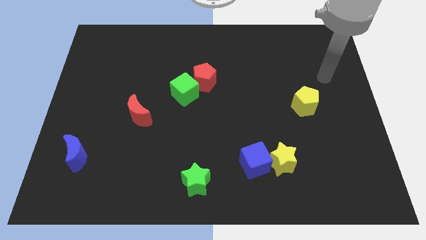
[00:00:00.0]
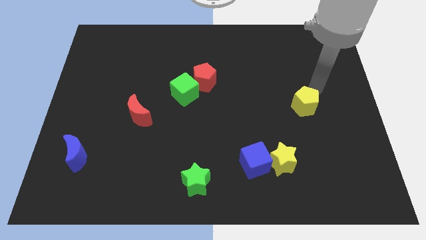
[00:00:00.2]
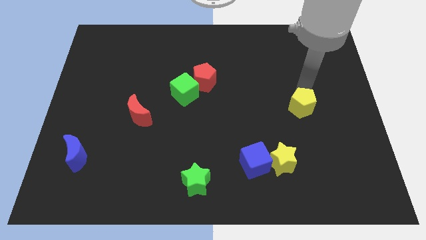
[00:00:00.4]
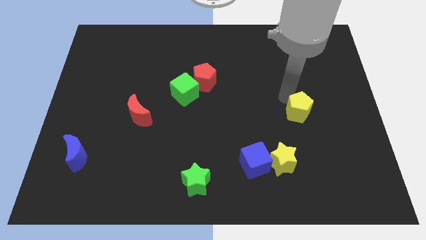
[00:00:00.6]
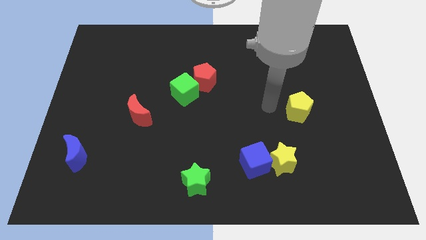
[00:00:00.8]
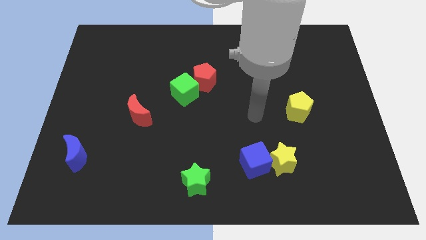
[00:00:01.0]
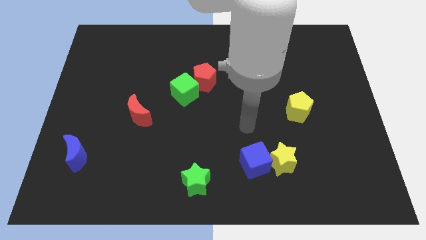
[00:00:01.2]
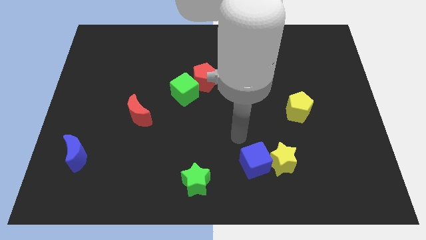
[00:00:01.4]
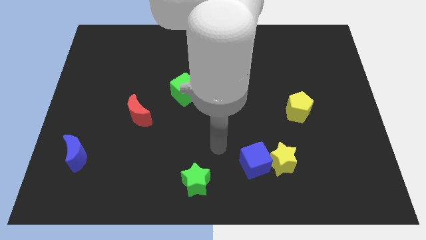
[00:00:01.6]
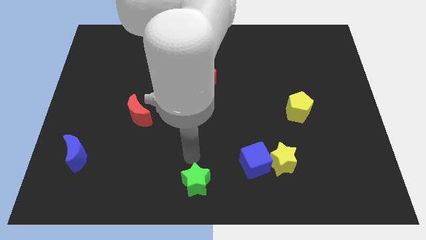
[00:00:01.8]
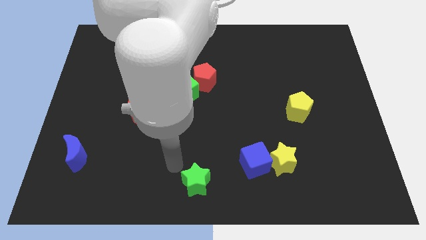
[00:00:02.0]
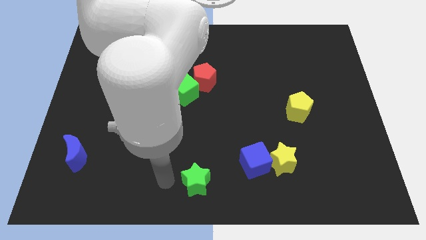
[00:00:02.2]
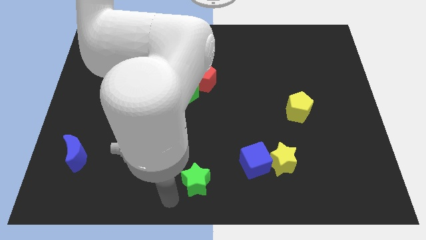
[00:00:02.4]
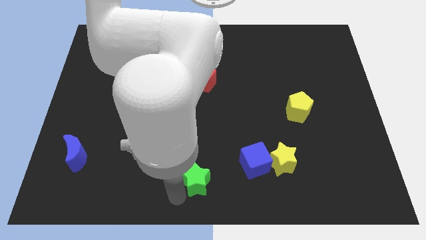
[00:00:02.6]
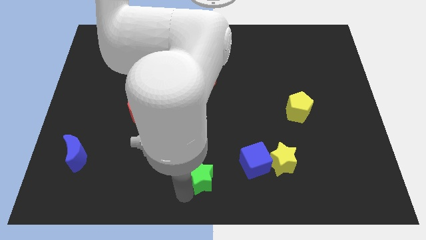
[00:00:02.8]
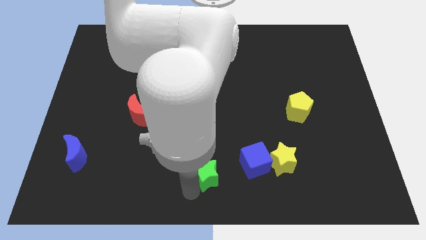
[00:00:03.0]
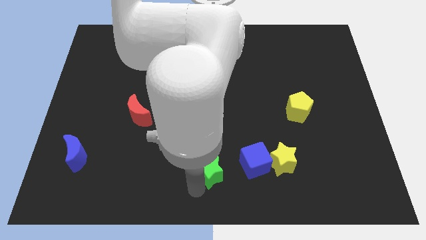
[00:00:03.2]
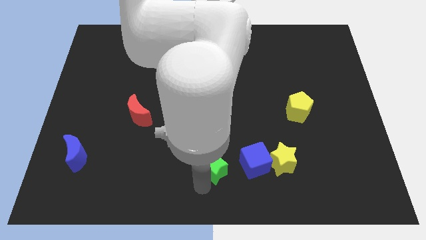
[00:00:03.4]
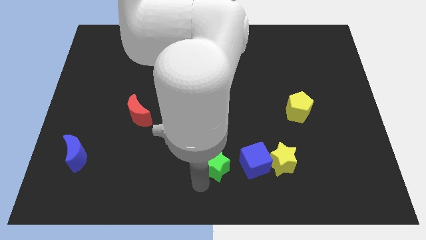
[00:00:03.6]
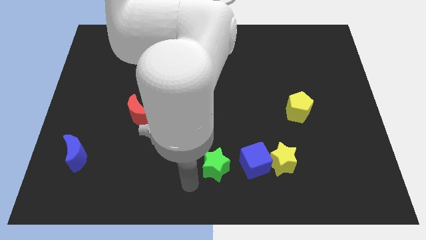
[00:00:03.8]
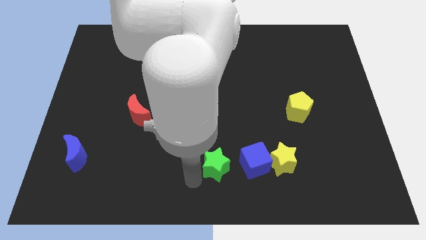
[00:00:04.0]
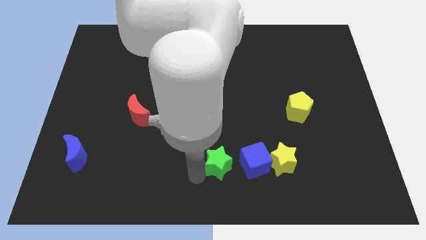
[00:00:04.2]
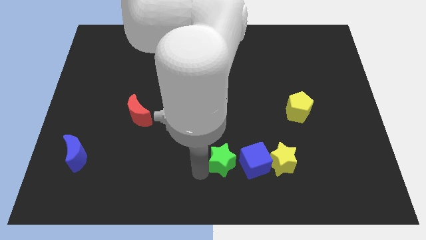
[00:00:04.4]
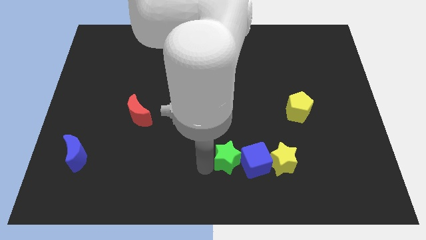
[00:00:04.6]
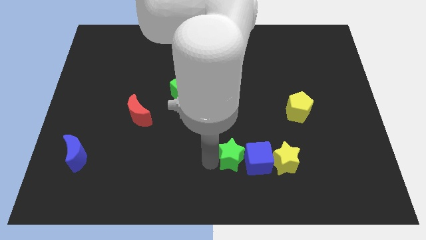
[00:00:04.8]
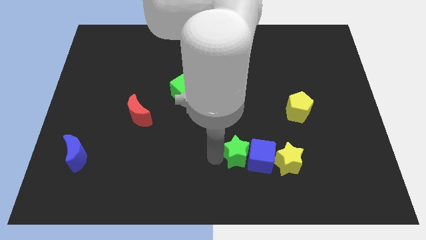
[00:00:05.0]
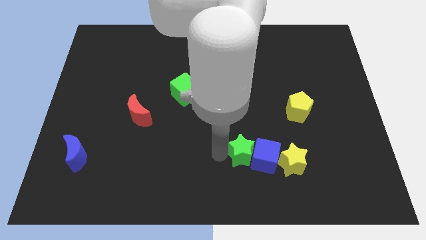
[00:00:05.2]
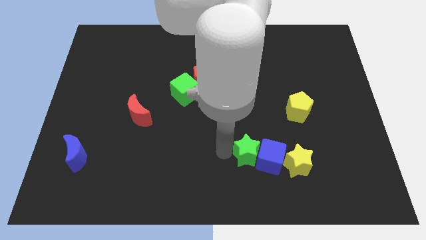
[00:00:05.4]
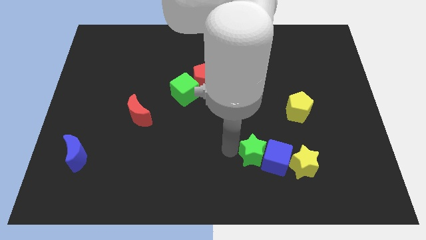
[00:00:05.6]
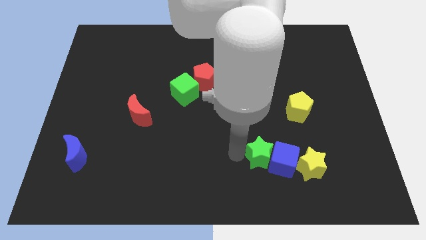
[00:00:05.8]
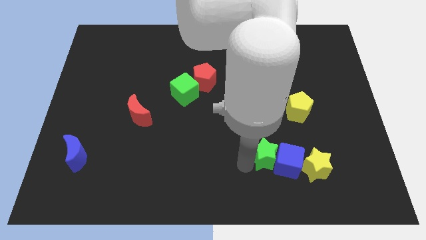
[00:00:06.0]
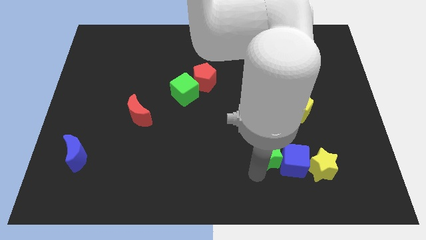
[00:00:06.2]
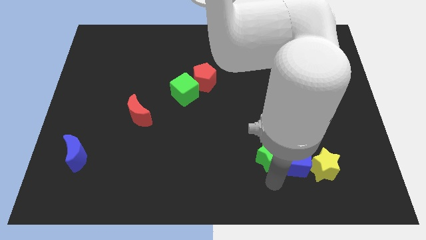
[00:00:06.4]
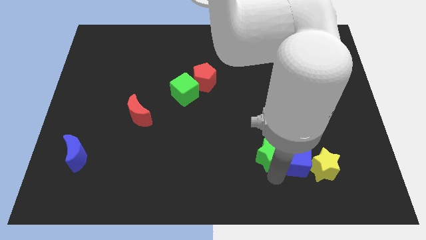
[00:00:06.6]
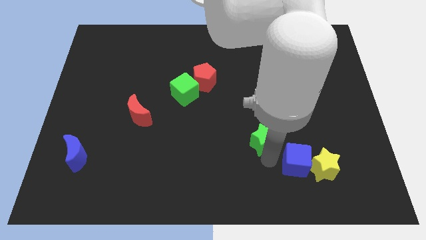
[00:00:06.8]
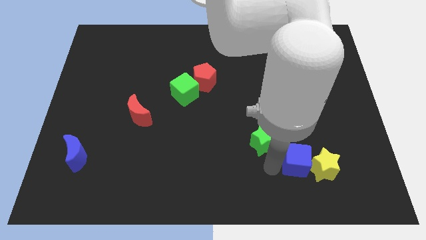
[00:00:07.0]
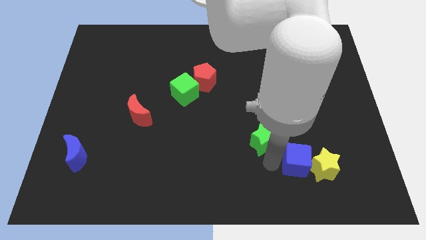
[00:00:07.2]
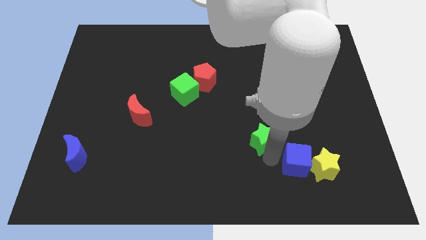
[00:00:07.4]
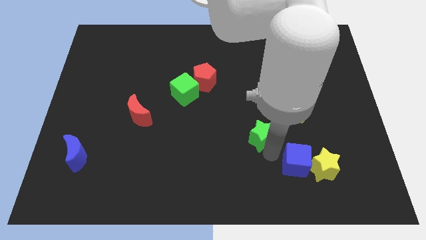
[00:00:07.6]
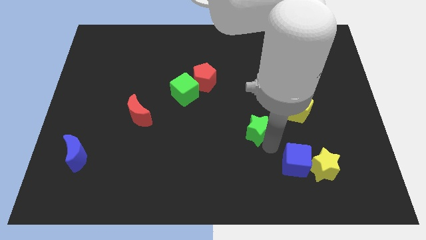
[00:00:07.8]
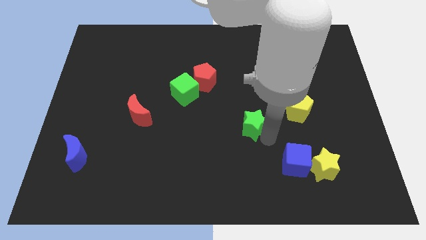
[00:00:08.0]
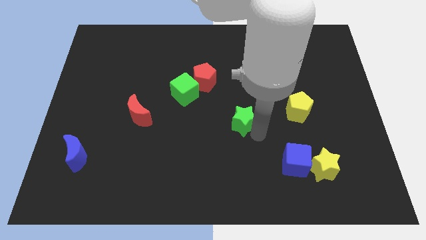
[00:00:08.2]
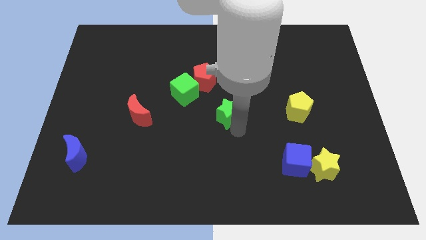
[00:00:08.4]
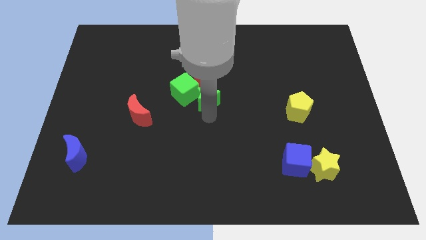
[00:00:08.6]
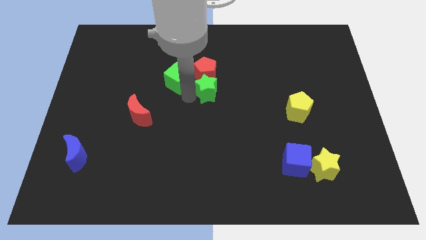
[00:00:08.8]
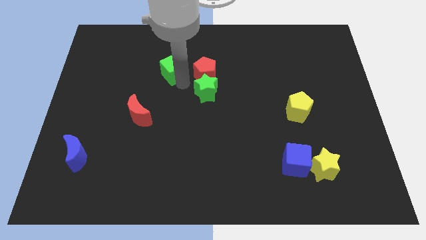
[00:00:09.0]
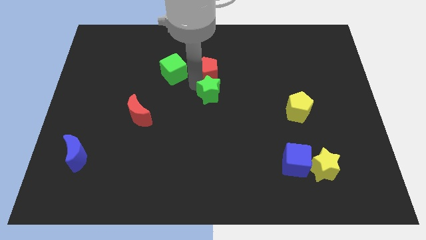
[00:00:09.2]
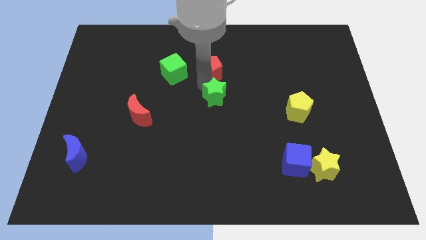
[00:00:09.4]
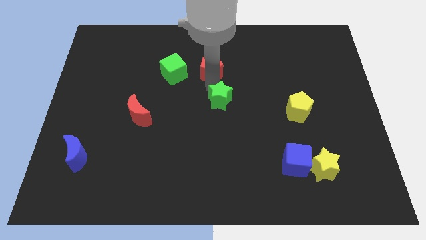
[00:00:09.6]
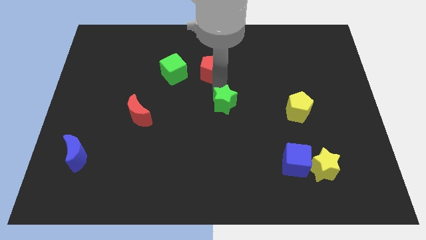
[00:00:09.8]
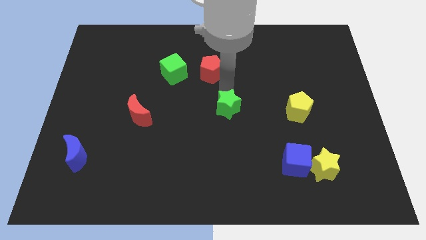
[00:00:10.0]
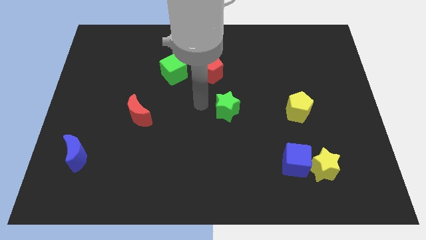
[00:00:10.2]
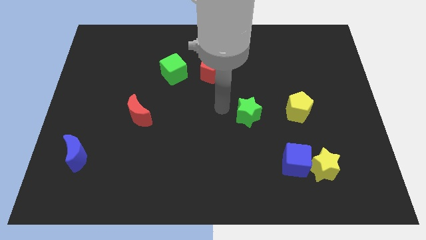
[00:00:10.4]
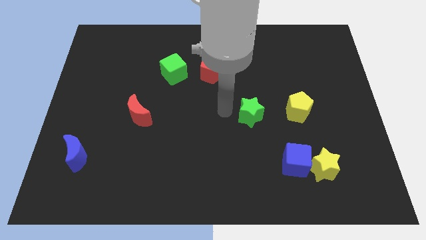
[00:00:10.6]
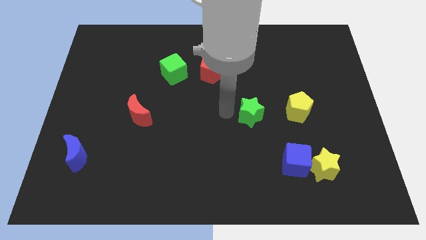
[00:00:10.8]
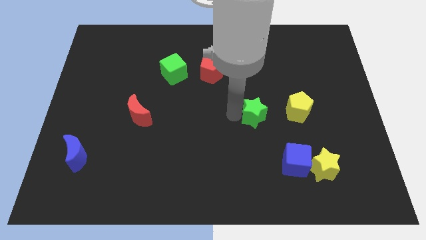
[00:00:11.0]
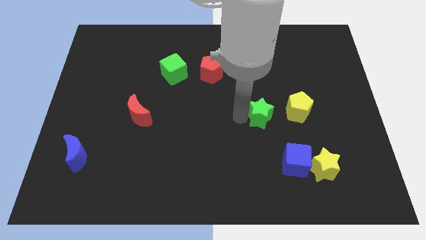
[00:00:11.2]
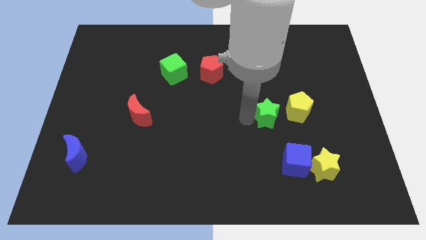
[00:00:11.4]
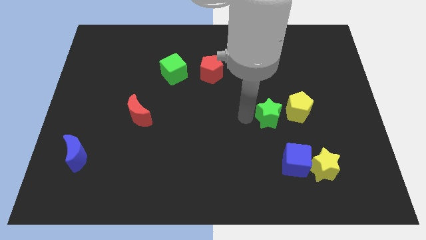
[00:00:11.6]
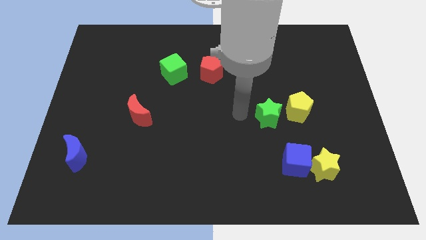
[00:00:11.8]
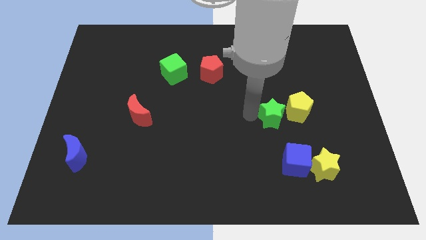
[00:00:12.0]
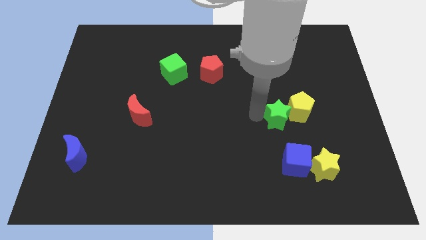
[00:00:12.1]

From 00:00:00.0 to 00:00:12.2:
push the green star next to the yellow pentagon

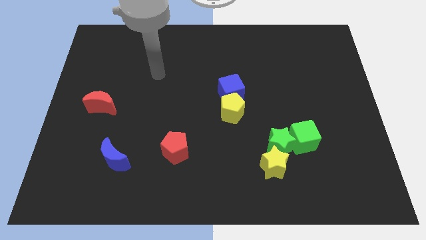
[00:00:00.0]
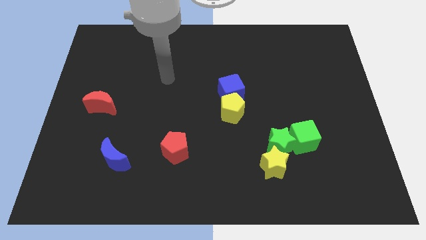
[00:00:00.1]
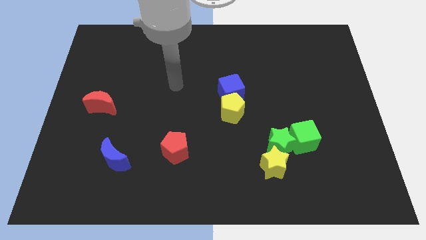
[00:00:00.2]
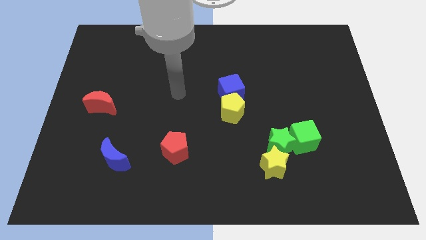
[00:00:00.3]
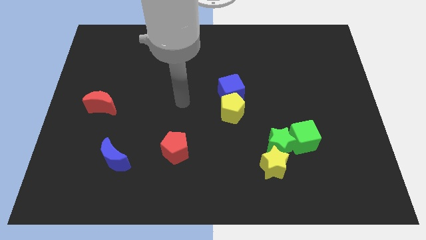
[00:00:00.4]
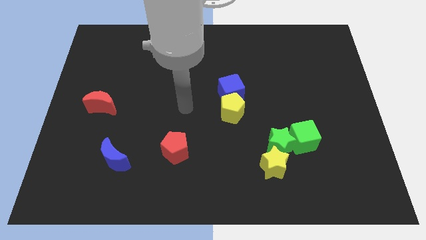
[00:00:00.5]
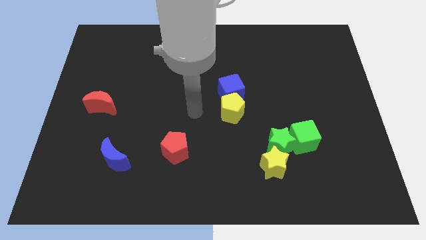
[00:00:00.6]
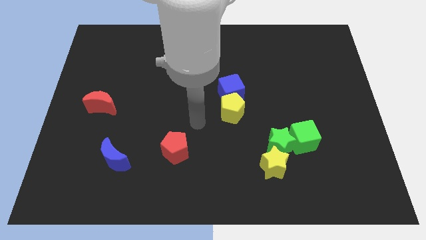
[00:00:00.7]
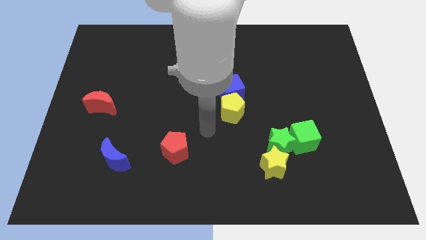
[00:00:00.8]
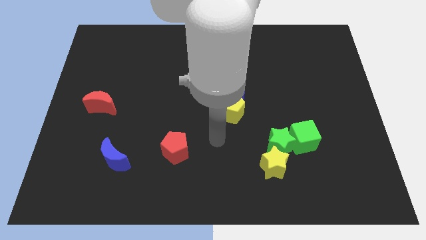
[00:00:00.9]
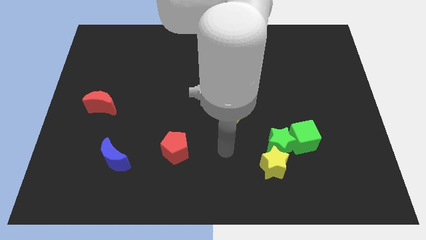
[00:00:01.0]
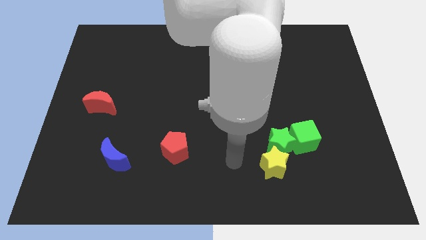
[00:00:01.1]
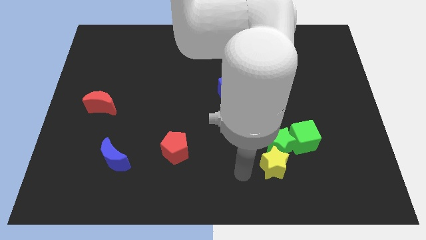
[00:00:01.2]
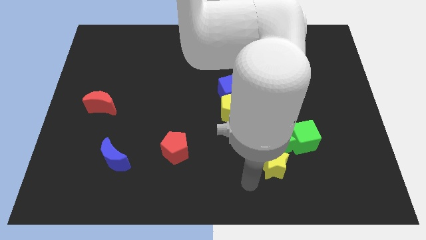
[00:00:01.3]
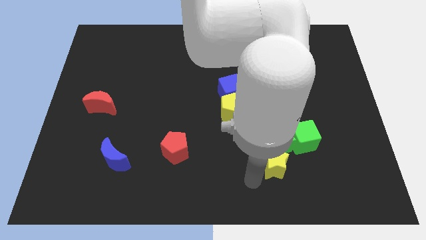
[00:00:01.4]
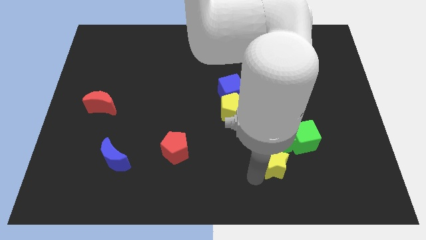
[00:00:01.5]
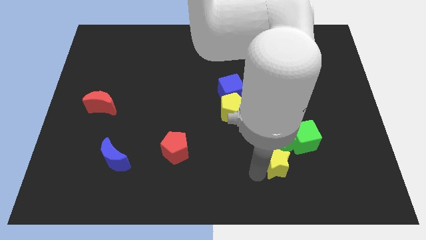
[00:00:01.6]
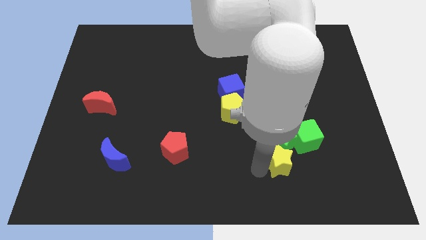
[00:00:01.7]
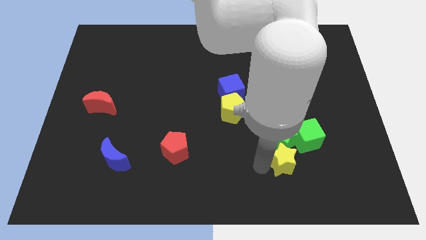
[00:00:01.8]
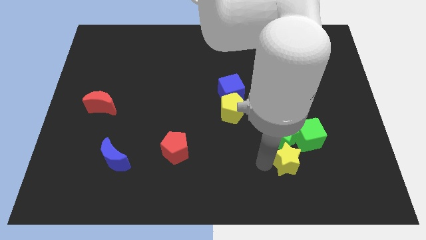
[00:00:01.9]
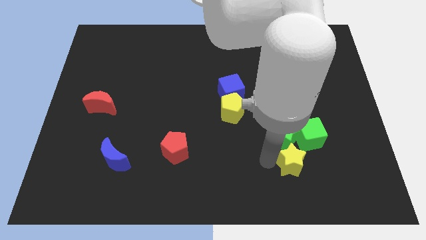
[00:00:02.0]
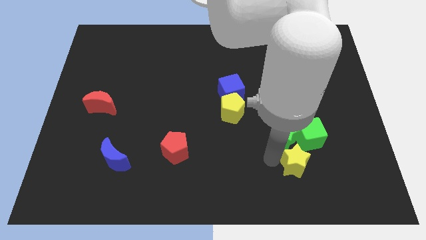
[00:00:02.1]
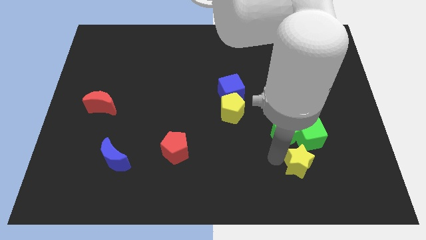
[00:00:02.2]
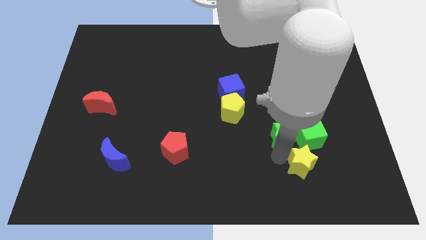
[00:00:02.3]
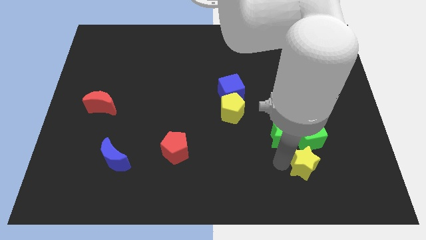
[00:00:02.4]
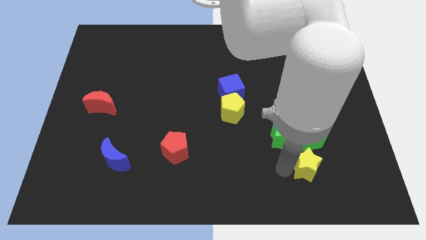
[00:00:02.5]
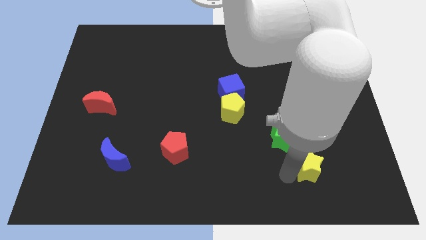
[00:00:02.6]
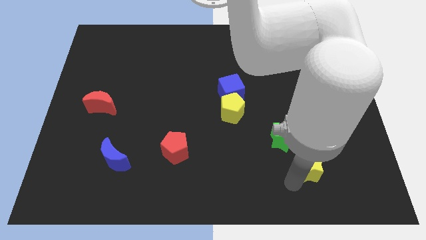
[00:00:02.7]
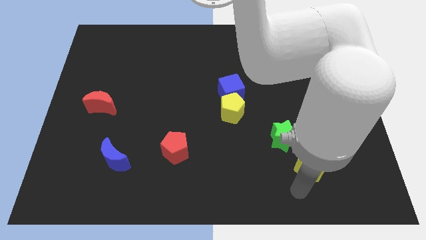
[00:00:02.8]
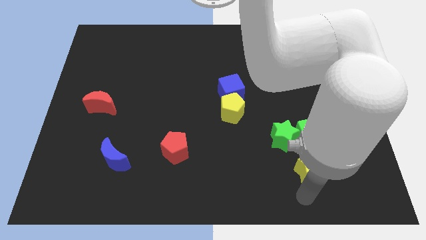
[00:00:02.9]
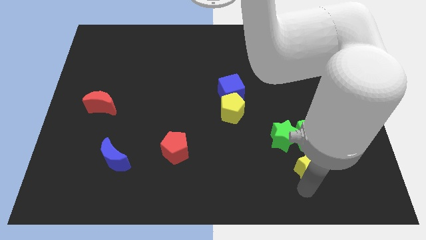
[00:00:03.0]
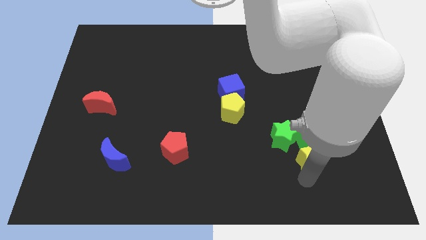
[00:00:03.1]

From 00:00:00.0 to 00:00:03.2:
slide the yellow star close to the green cube
